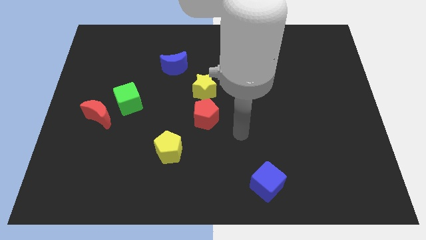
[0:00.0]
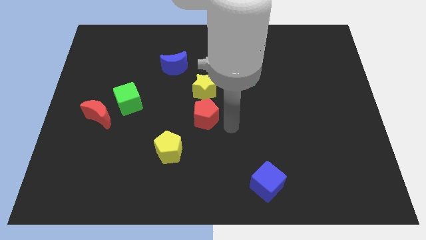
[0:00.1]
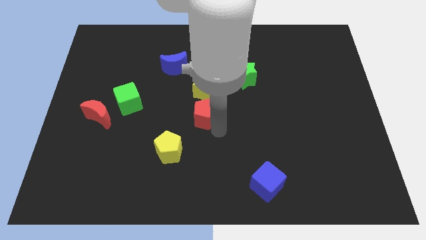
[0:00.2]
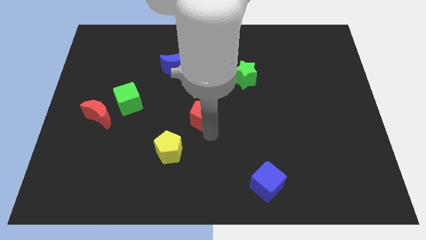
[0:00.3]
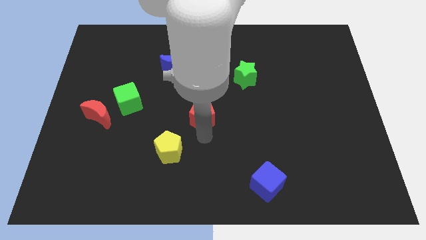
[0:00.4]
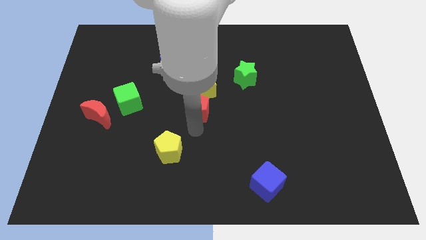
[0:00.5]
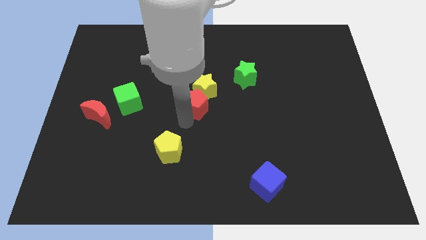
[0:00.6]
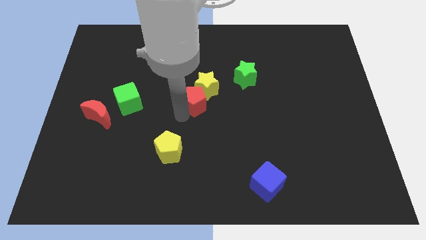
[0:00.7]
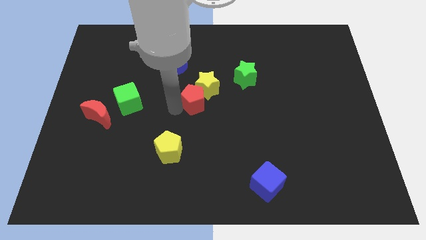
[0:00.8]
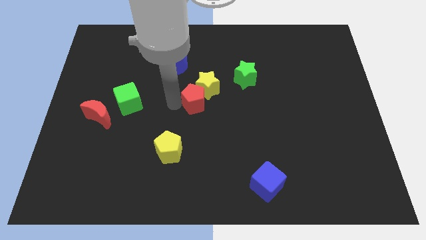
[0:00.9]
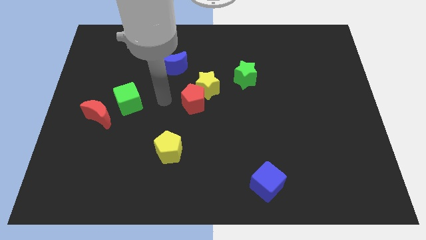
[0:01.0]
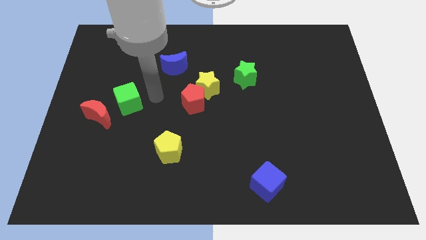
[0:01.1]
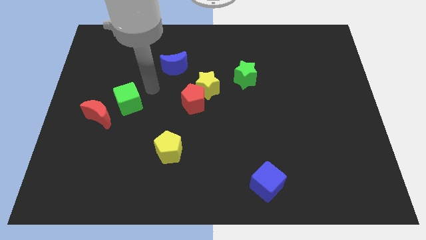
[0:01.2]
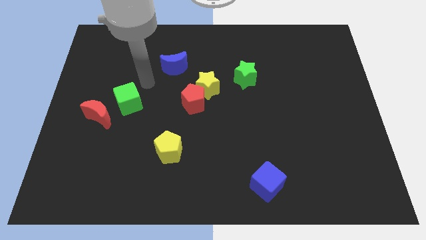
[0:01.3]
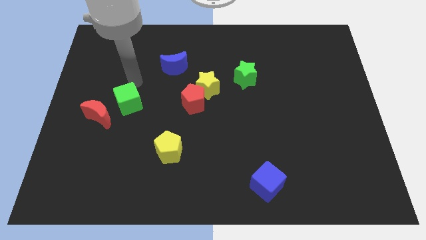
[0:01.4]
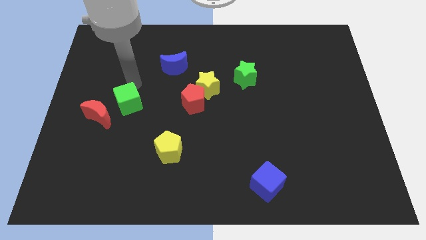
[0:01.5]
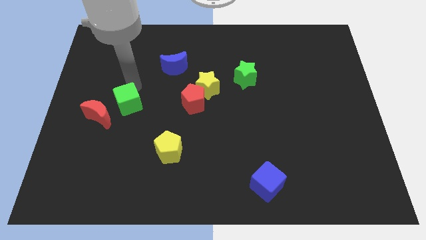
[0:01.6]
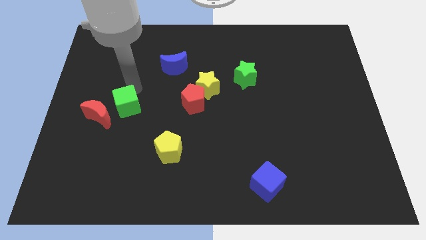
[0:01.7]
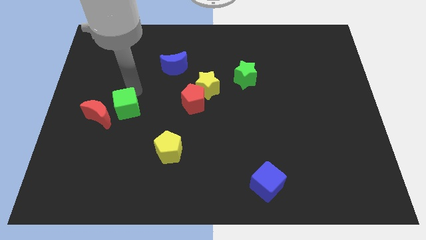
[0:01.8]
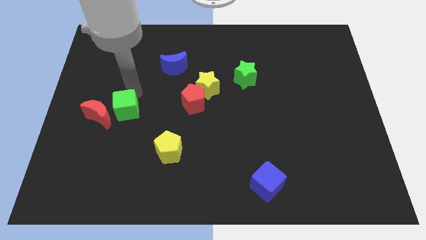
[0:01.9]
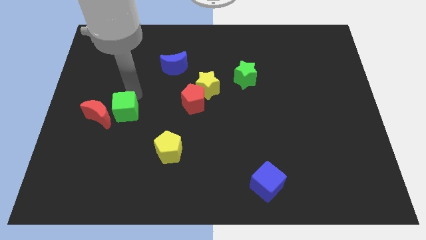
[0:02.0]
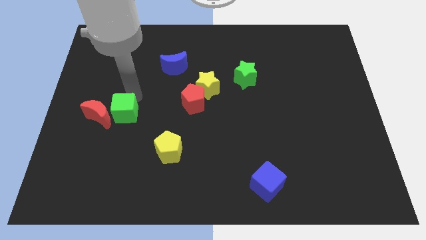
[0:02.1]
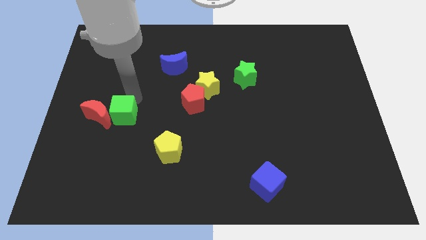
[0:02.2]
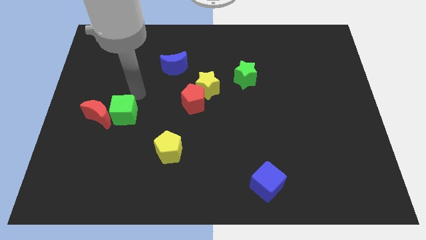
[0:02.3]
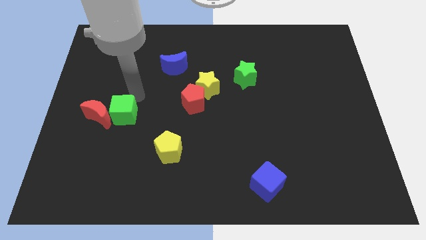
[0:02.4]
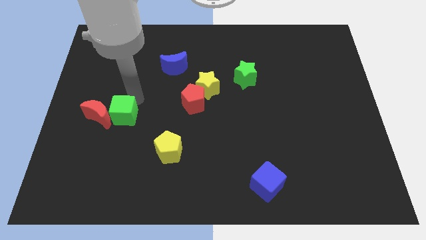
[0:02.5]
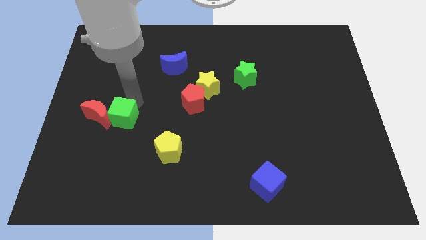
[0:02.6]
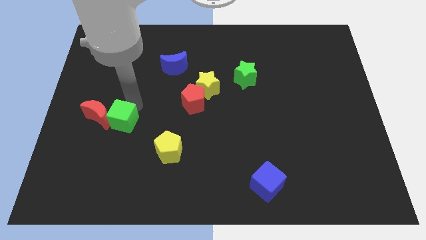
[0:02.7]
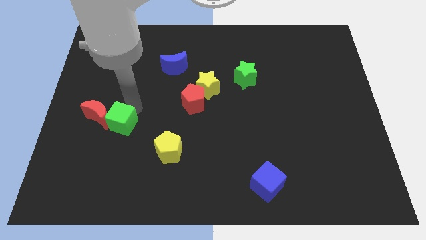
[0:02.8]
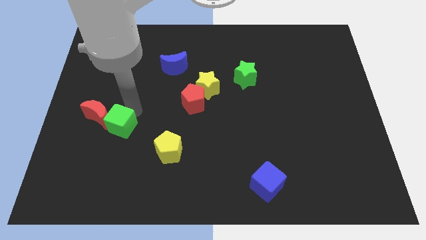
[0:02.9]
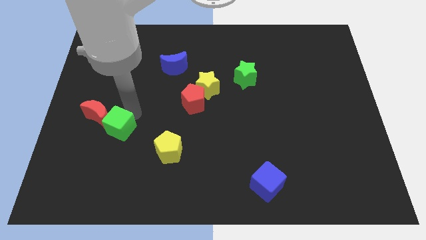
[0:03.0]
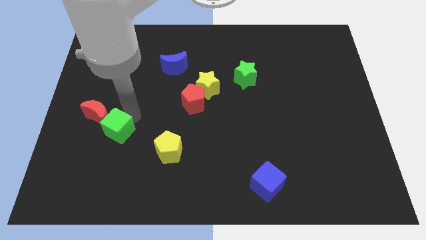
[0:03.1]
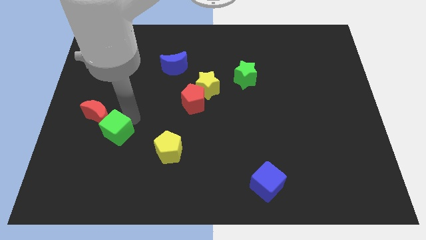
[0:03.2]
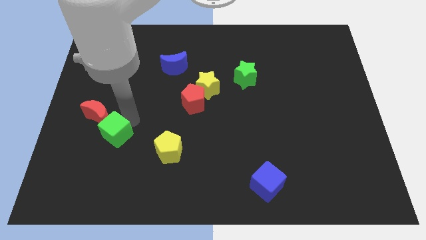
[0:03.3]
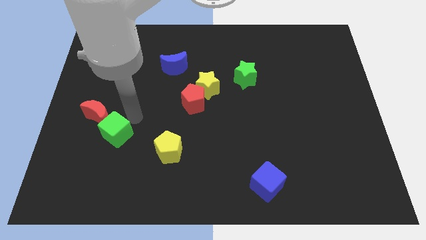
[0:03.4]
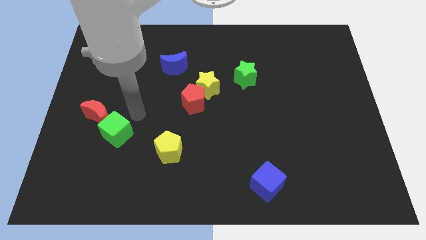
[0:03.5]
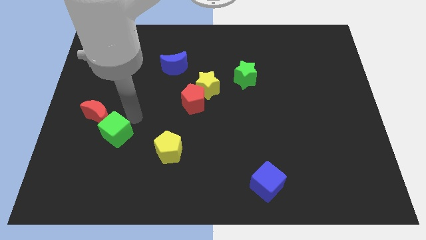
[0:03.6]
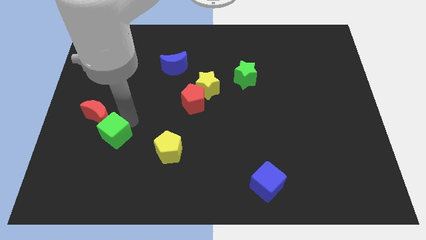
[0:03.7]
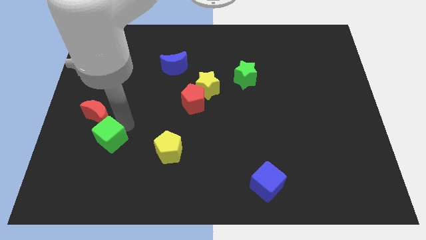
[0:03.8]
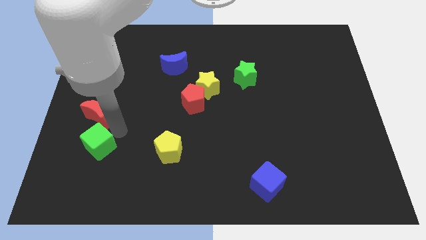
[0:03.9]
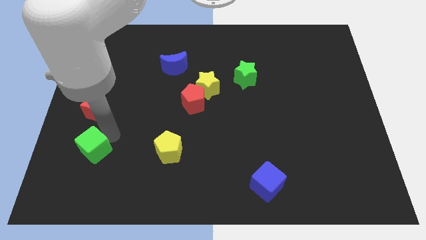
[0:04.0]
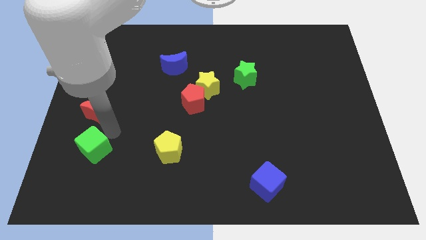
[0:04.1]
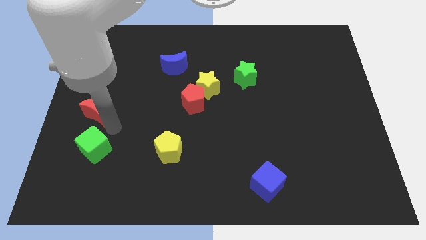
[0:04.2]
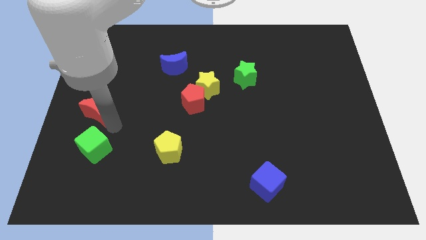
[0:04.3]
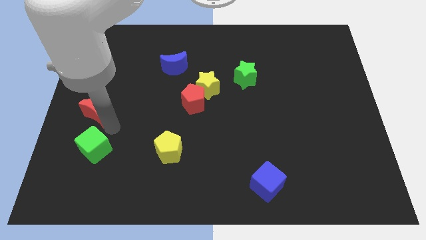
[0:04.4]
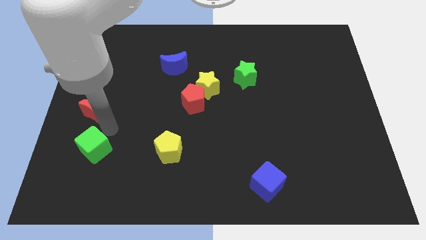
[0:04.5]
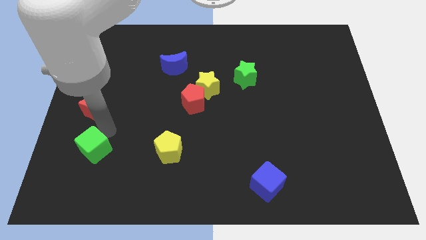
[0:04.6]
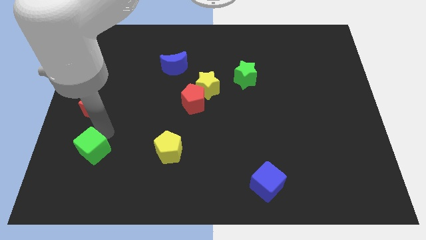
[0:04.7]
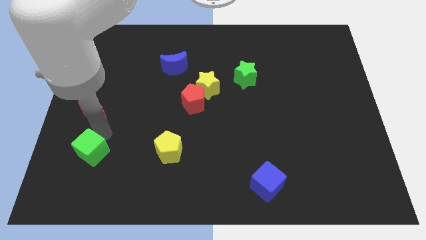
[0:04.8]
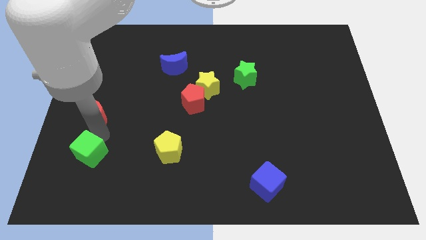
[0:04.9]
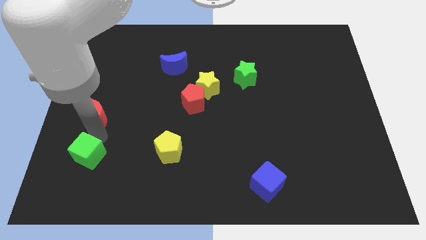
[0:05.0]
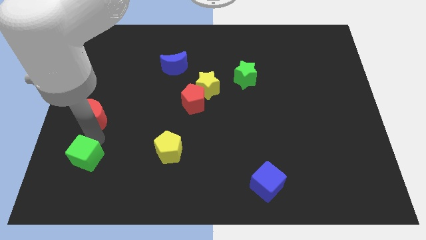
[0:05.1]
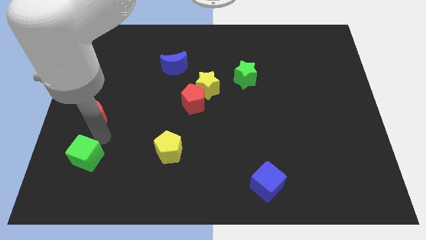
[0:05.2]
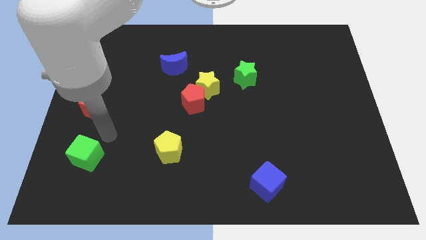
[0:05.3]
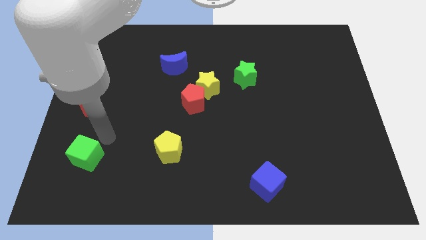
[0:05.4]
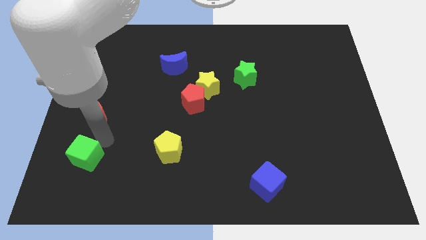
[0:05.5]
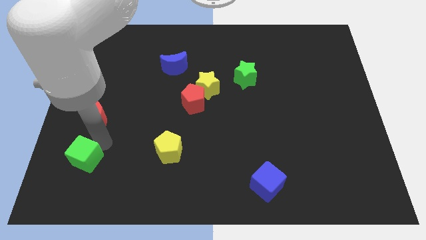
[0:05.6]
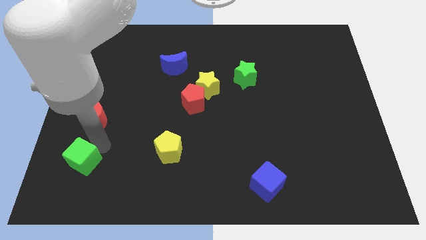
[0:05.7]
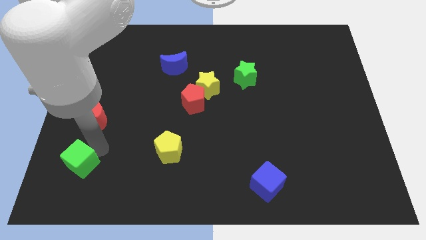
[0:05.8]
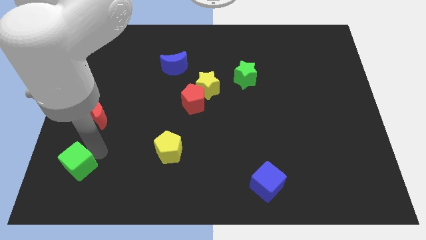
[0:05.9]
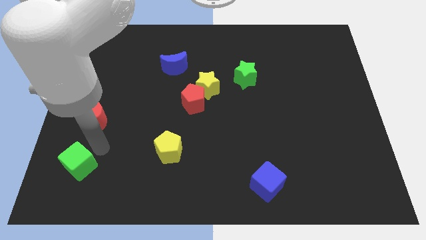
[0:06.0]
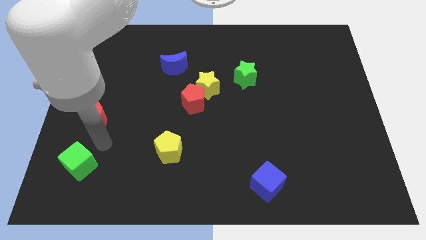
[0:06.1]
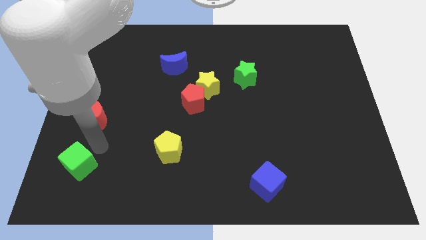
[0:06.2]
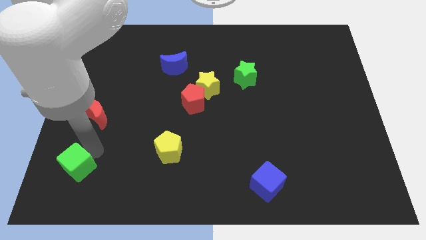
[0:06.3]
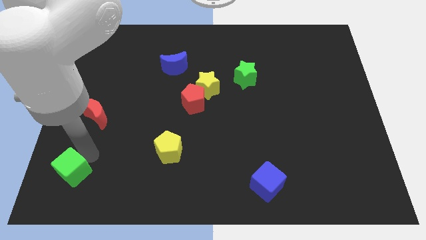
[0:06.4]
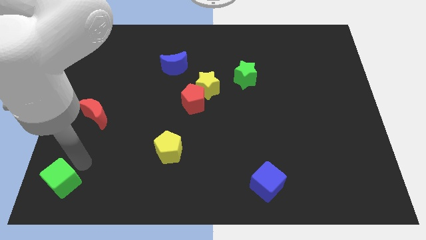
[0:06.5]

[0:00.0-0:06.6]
move the green cube to the bottom left
